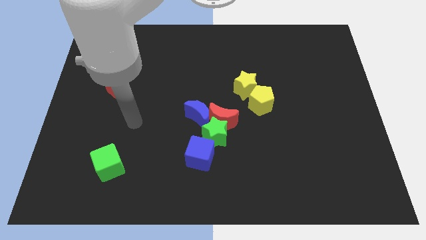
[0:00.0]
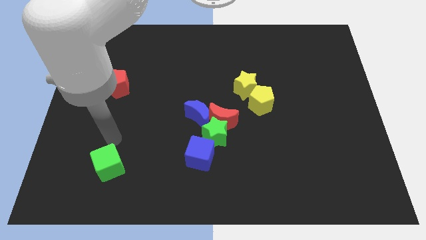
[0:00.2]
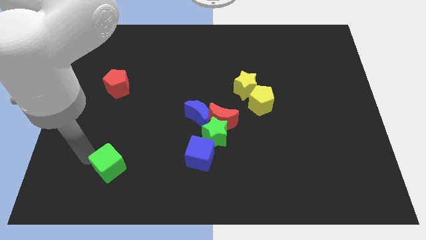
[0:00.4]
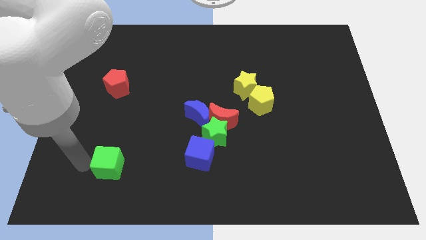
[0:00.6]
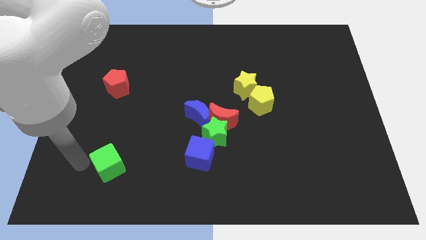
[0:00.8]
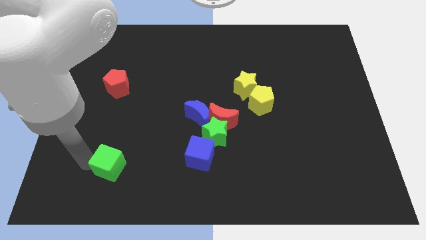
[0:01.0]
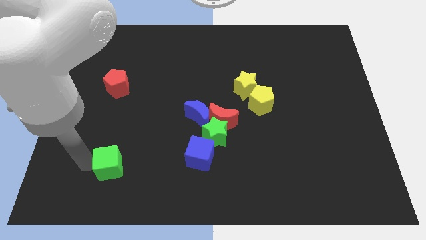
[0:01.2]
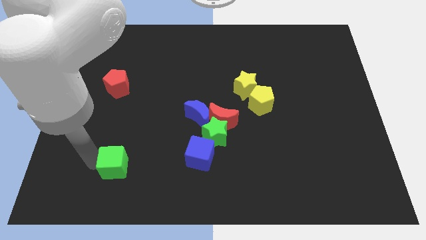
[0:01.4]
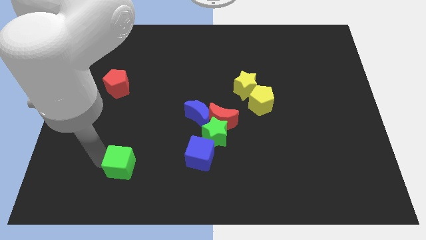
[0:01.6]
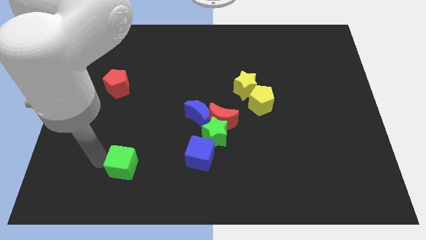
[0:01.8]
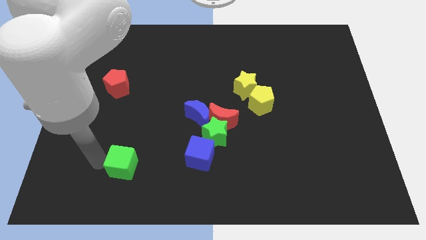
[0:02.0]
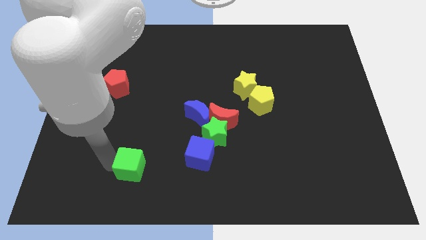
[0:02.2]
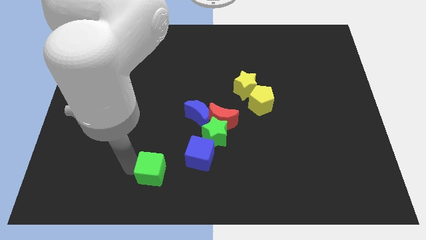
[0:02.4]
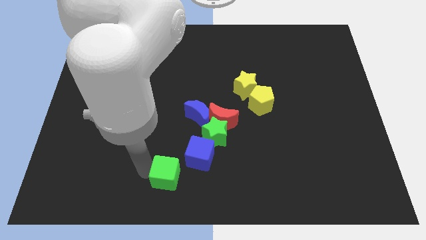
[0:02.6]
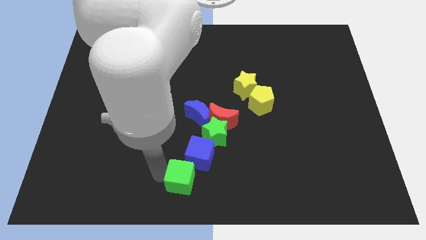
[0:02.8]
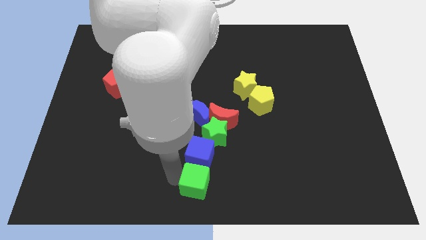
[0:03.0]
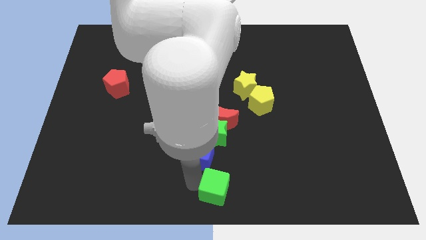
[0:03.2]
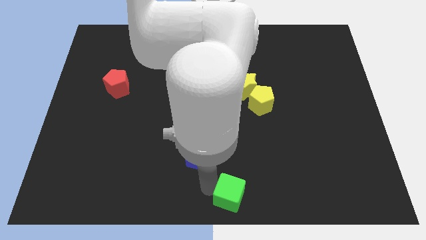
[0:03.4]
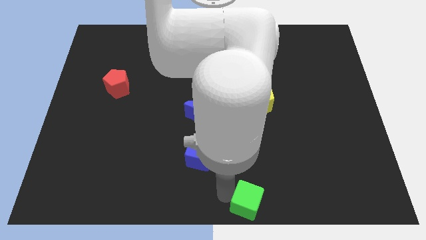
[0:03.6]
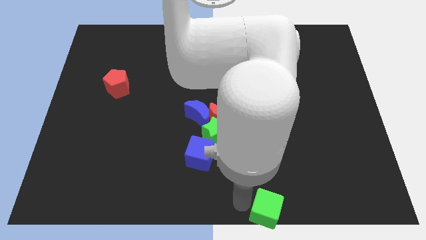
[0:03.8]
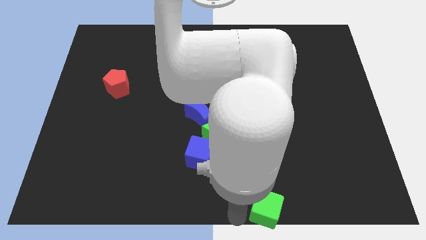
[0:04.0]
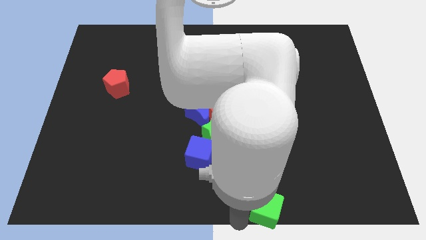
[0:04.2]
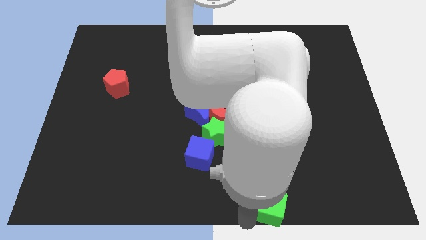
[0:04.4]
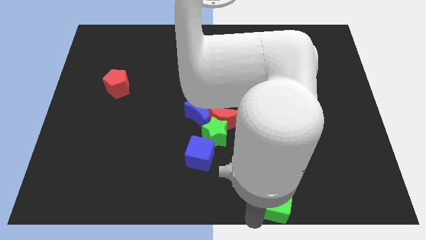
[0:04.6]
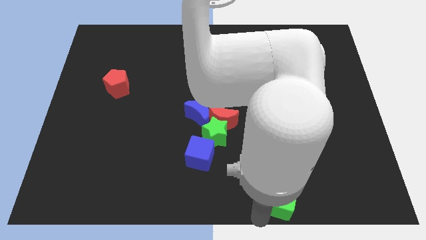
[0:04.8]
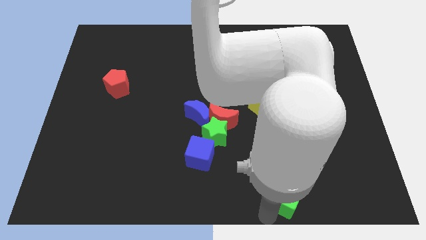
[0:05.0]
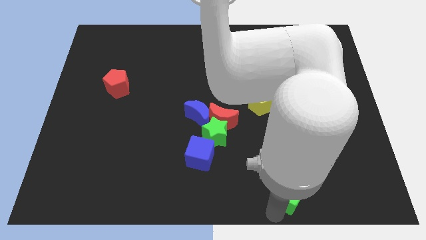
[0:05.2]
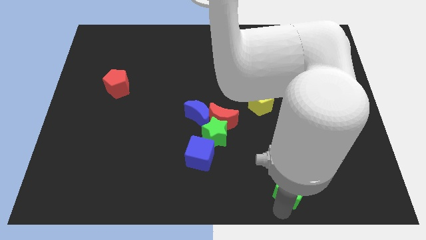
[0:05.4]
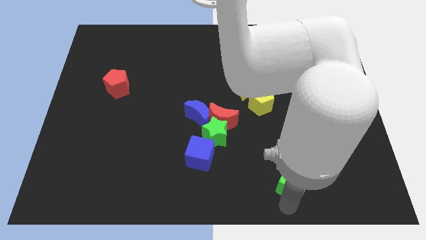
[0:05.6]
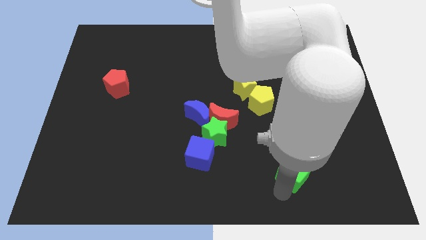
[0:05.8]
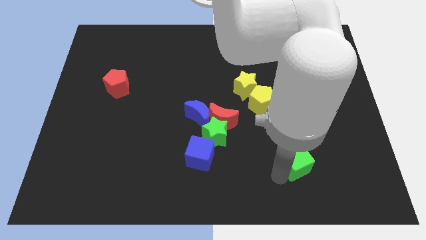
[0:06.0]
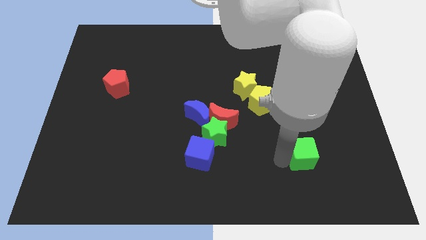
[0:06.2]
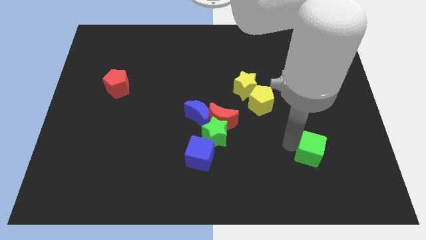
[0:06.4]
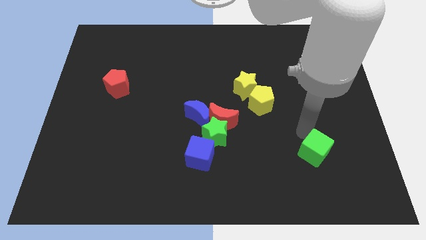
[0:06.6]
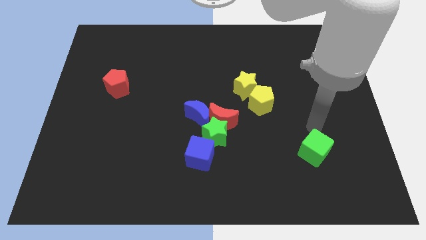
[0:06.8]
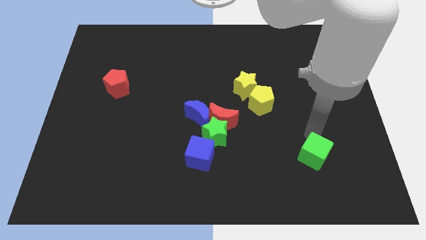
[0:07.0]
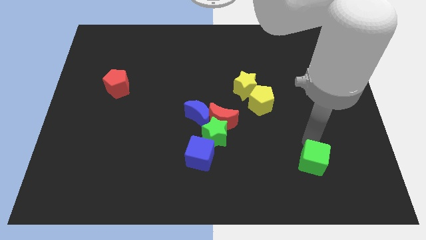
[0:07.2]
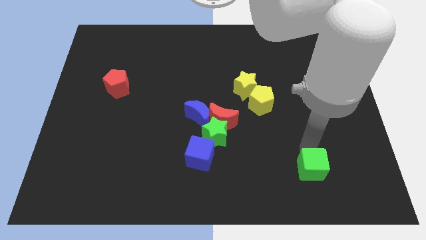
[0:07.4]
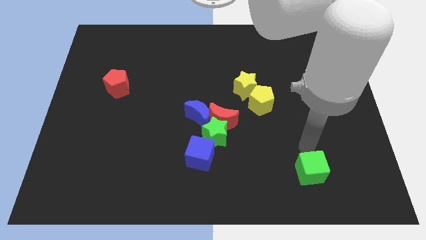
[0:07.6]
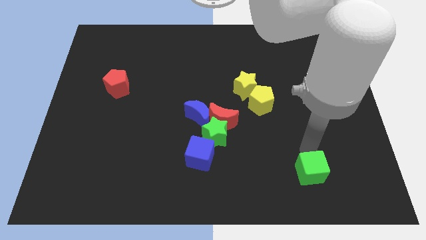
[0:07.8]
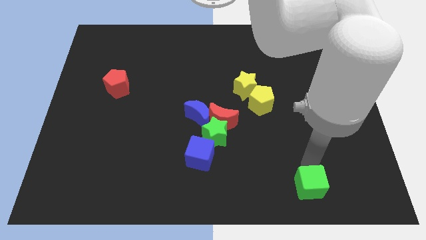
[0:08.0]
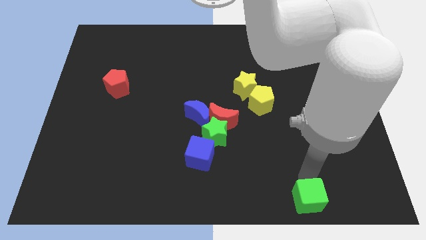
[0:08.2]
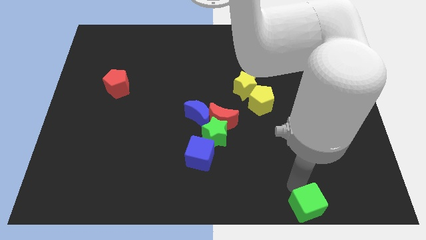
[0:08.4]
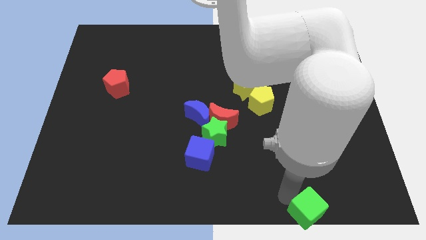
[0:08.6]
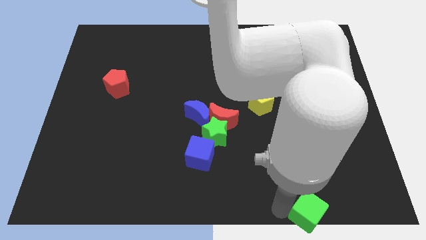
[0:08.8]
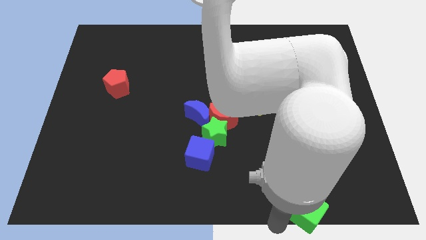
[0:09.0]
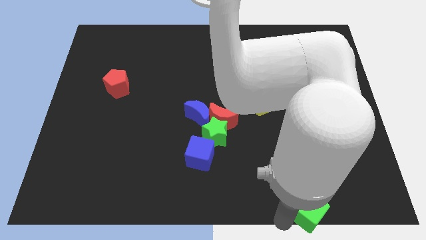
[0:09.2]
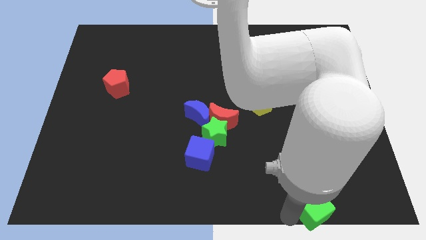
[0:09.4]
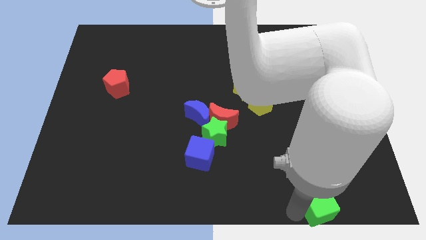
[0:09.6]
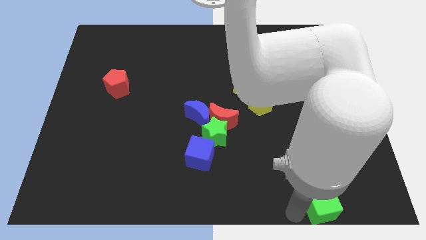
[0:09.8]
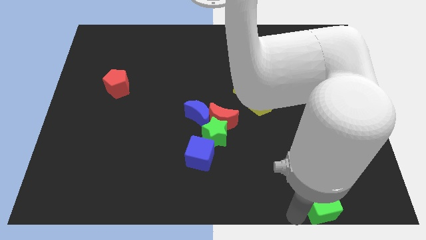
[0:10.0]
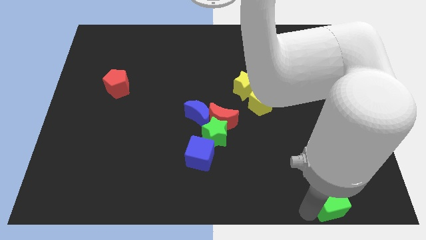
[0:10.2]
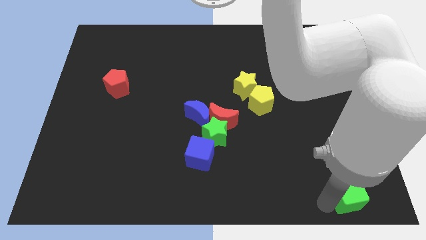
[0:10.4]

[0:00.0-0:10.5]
slide the green cube to the bottom right corner

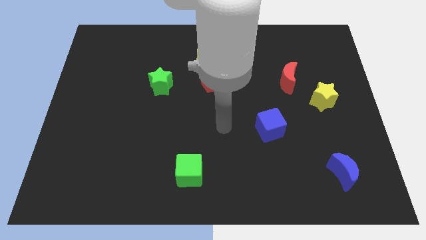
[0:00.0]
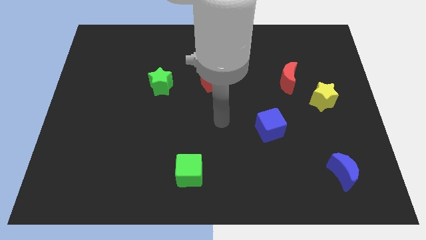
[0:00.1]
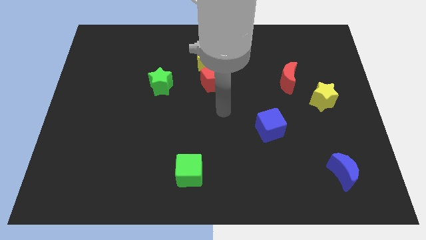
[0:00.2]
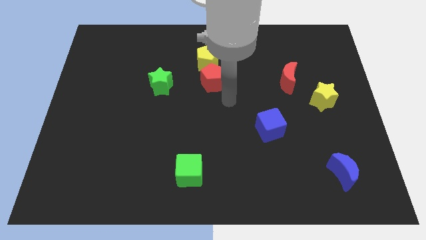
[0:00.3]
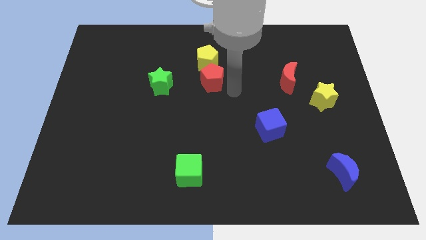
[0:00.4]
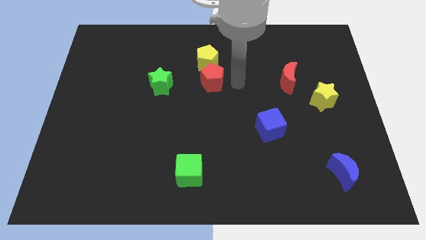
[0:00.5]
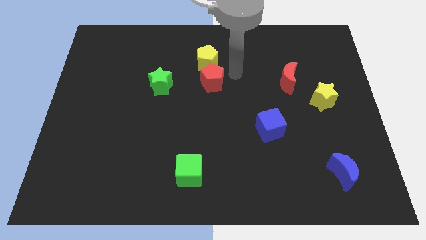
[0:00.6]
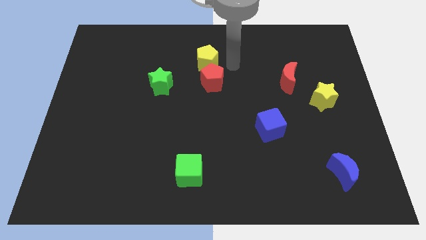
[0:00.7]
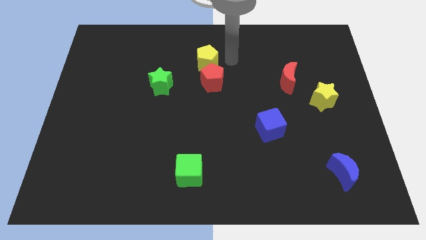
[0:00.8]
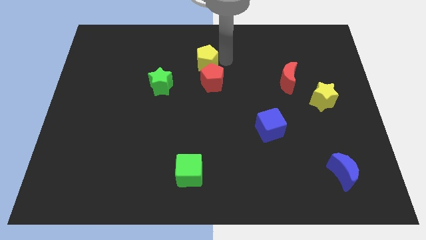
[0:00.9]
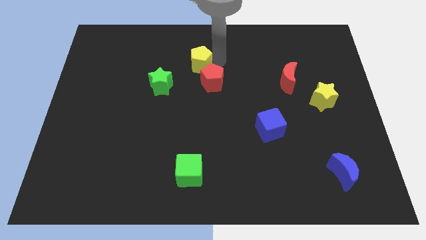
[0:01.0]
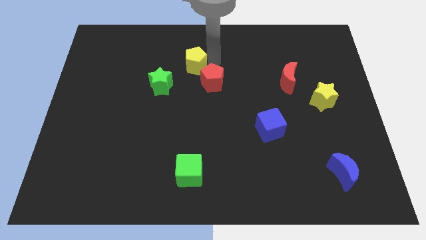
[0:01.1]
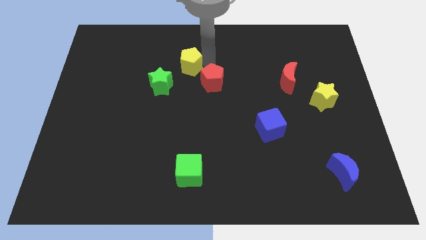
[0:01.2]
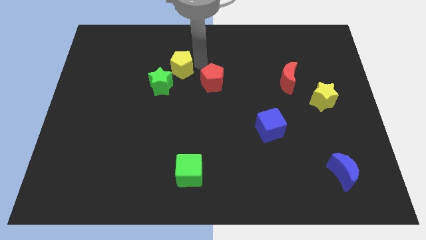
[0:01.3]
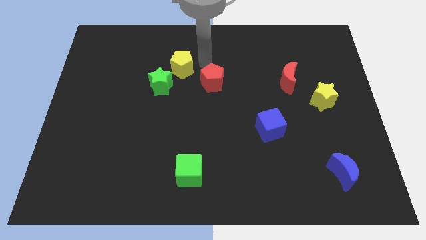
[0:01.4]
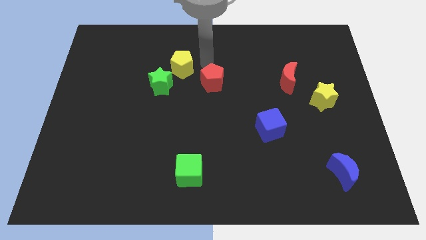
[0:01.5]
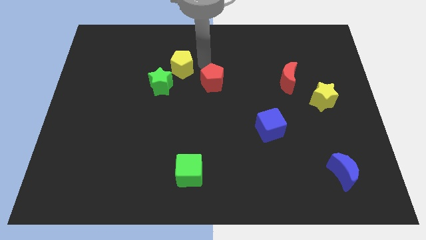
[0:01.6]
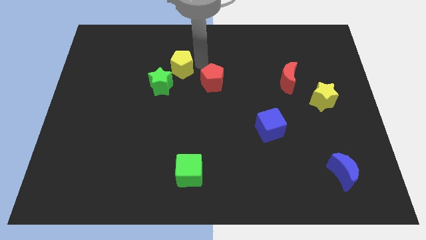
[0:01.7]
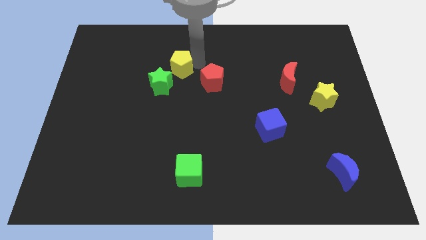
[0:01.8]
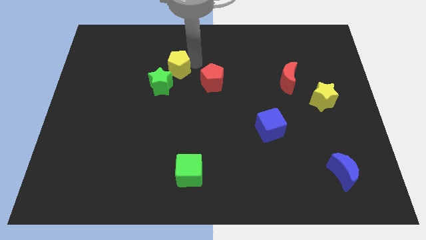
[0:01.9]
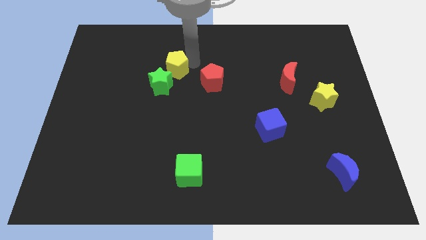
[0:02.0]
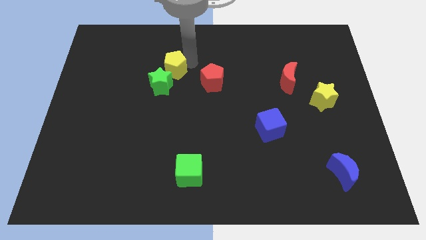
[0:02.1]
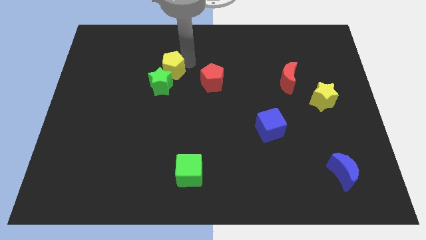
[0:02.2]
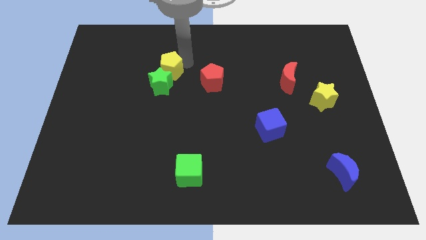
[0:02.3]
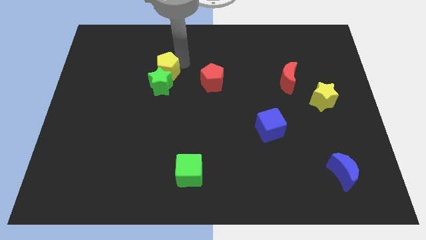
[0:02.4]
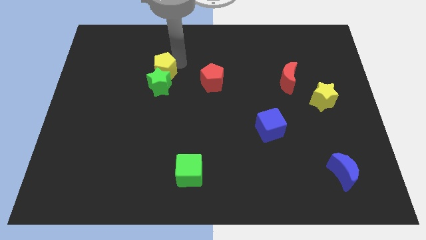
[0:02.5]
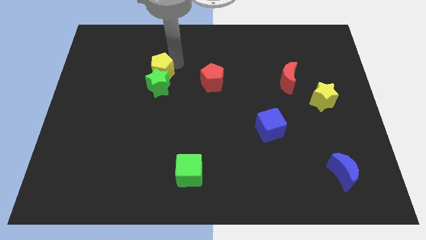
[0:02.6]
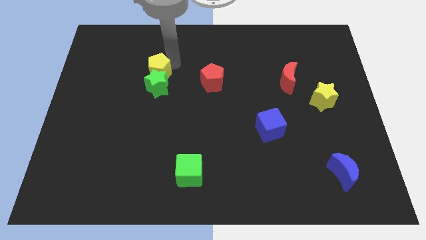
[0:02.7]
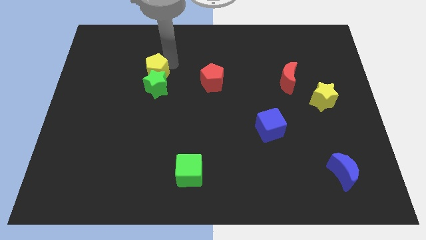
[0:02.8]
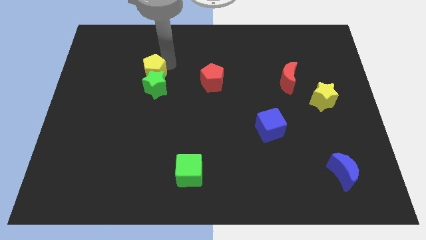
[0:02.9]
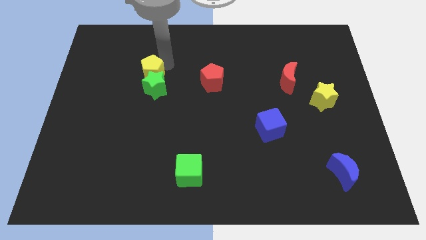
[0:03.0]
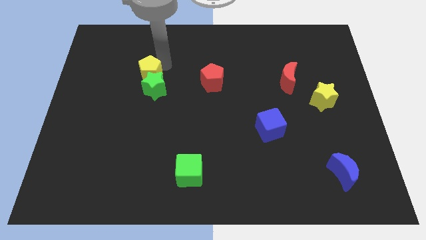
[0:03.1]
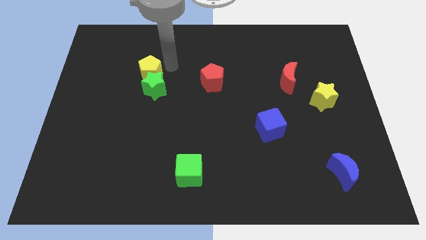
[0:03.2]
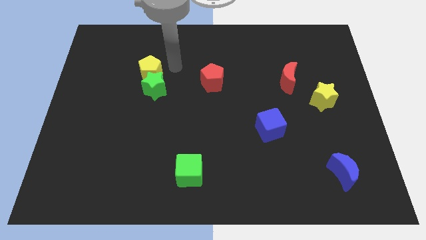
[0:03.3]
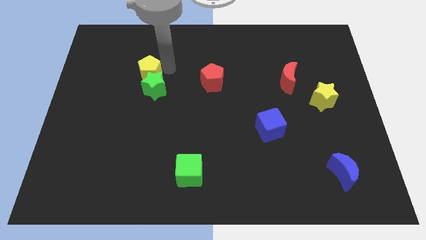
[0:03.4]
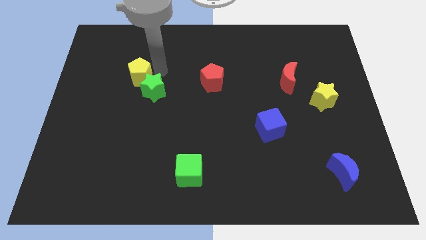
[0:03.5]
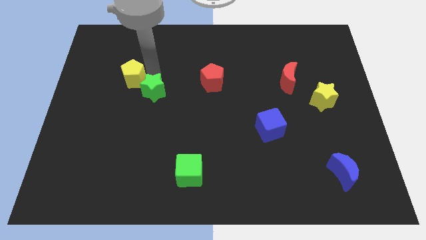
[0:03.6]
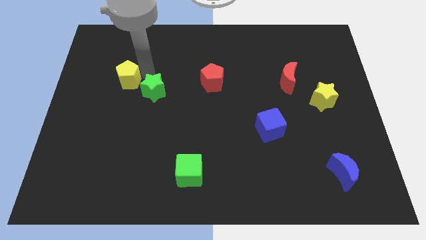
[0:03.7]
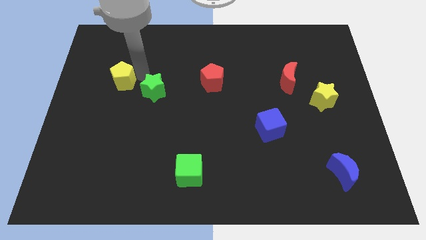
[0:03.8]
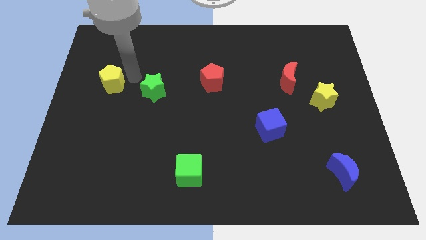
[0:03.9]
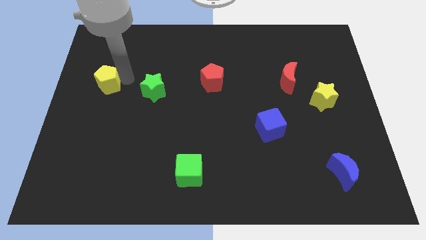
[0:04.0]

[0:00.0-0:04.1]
put the yellow pentagon to the left side
